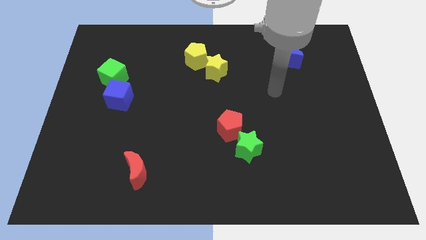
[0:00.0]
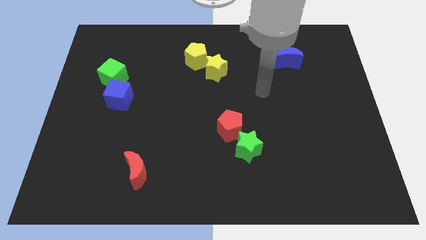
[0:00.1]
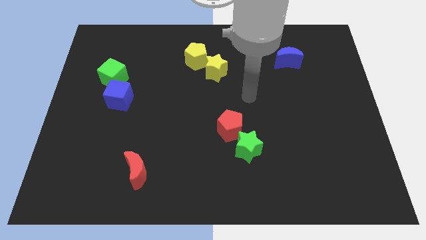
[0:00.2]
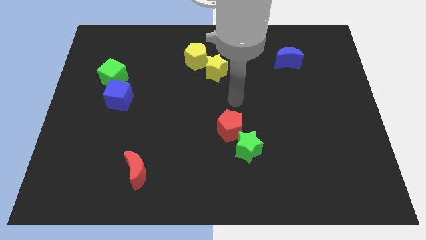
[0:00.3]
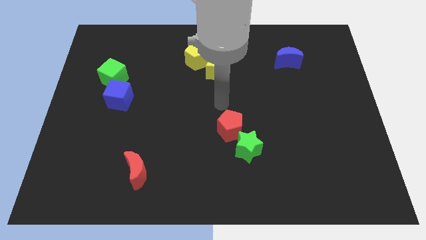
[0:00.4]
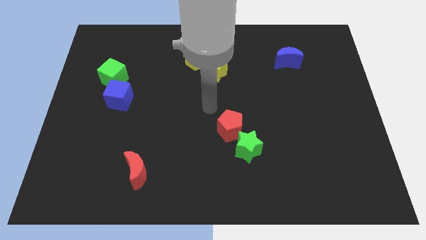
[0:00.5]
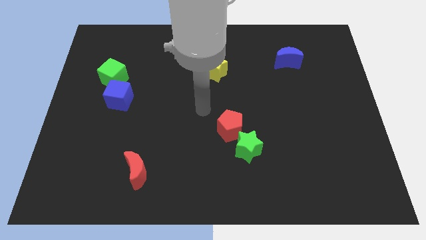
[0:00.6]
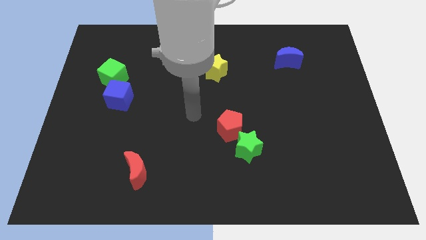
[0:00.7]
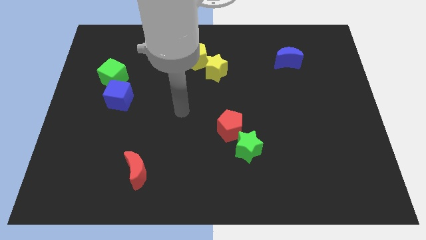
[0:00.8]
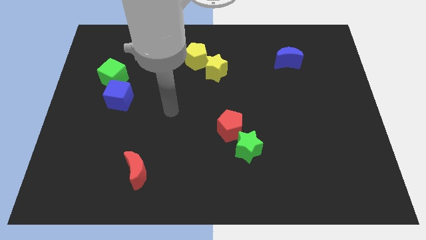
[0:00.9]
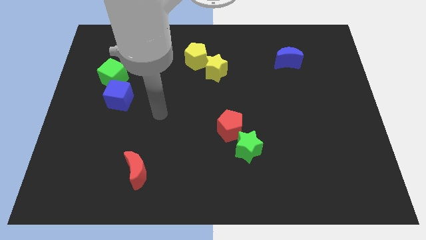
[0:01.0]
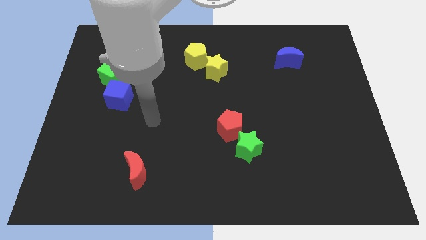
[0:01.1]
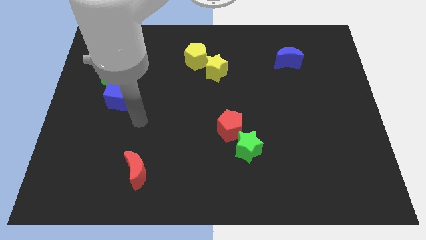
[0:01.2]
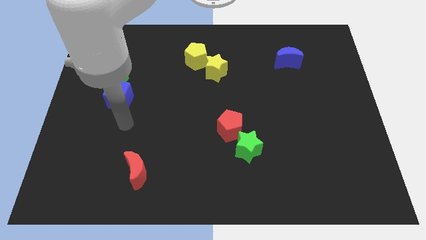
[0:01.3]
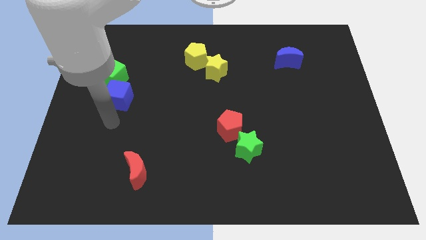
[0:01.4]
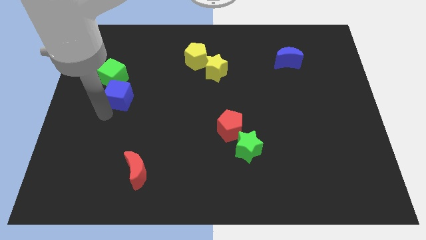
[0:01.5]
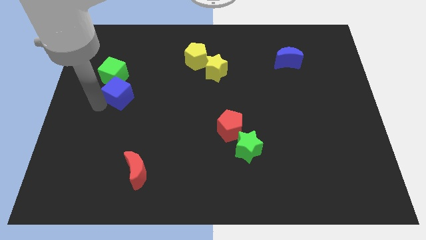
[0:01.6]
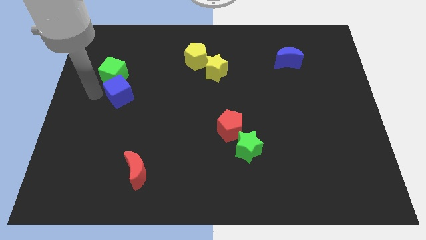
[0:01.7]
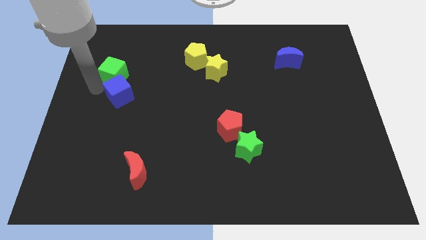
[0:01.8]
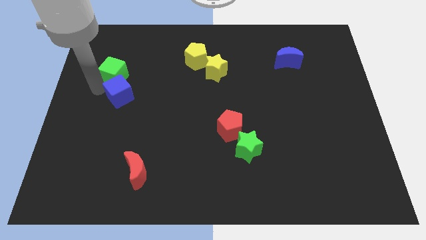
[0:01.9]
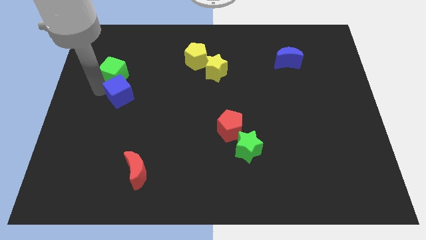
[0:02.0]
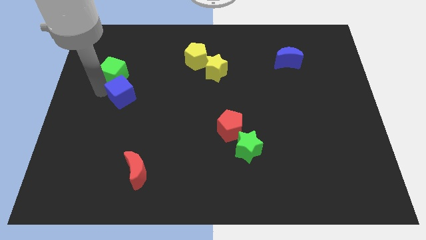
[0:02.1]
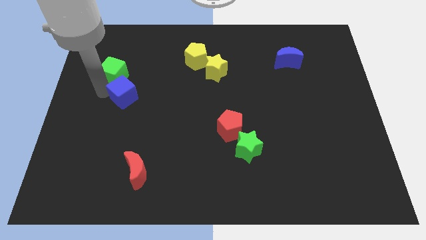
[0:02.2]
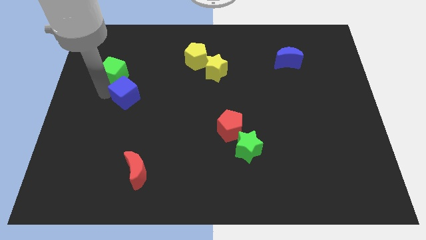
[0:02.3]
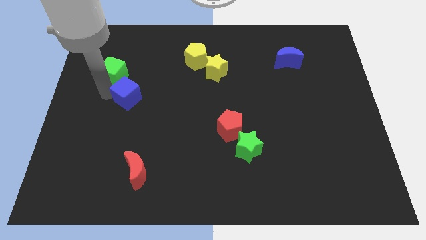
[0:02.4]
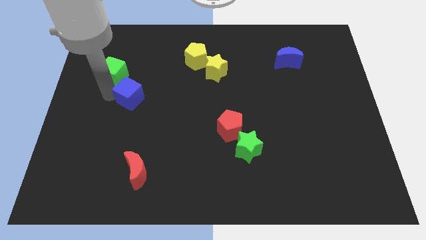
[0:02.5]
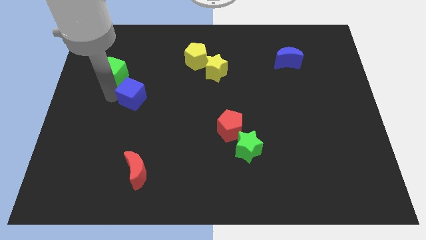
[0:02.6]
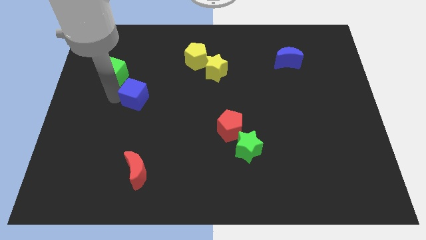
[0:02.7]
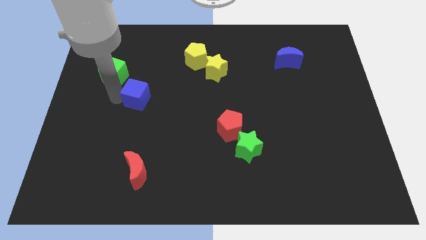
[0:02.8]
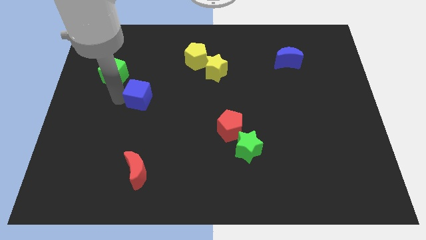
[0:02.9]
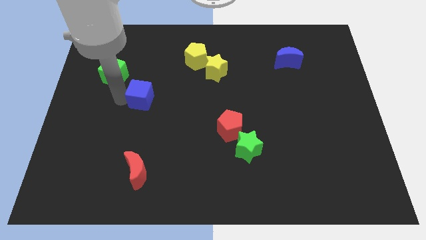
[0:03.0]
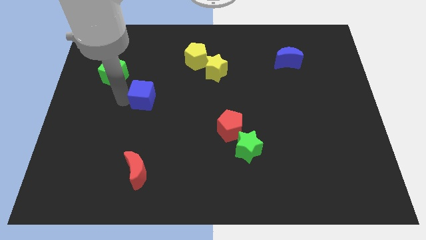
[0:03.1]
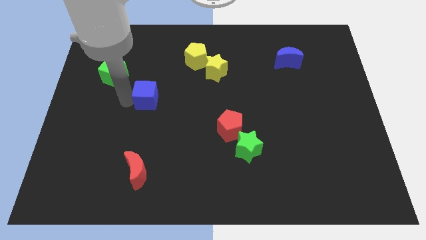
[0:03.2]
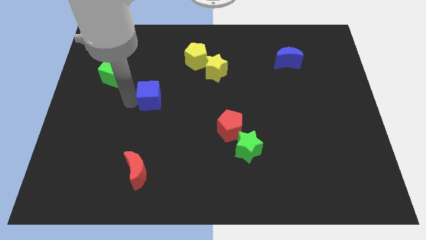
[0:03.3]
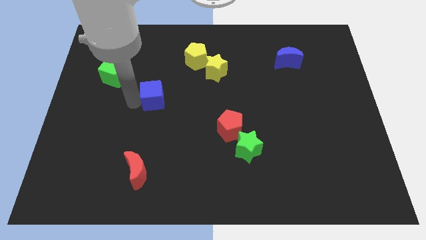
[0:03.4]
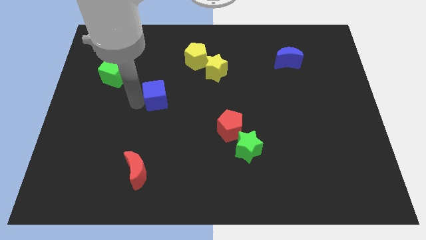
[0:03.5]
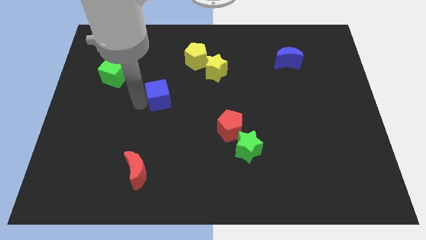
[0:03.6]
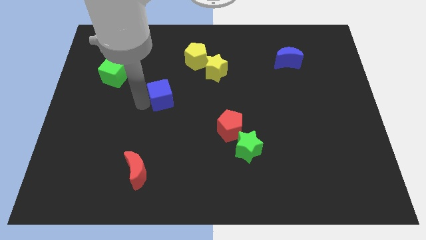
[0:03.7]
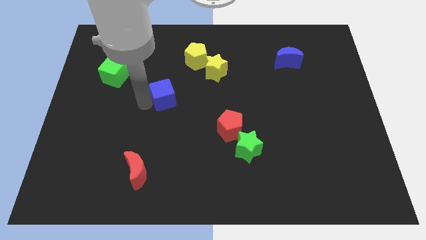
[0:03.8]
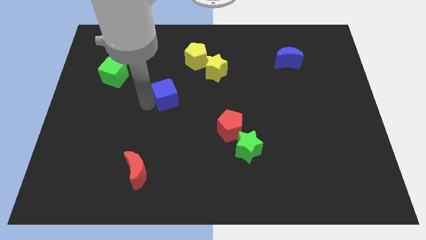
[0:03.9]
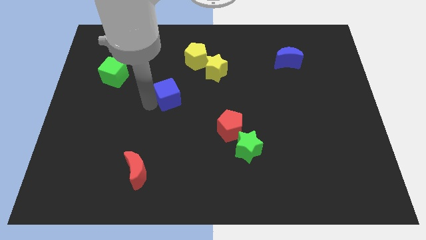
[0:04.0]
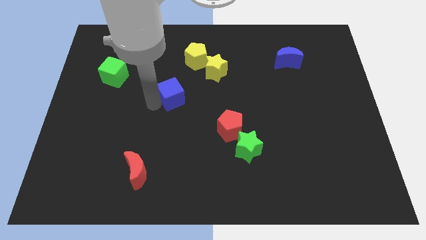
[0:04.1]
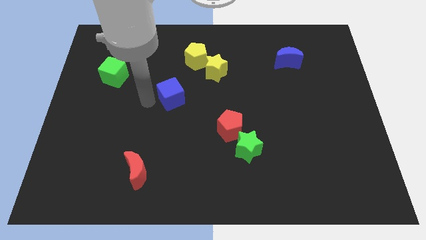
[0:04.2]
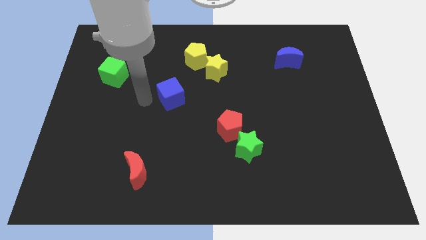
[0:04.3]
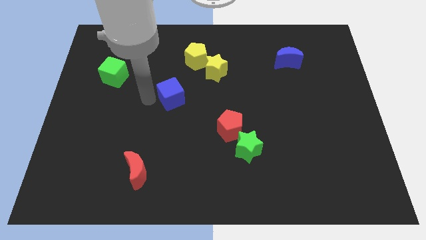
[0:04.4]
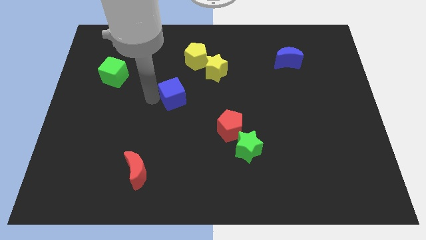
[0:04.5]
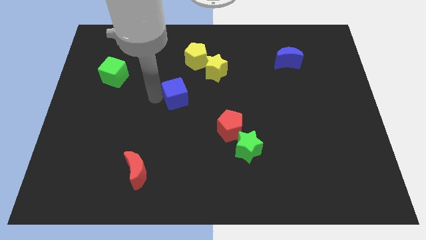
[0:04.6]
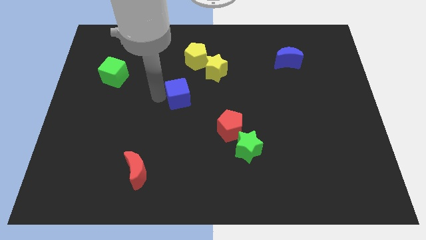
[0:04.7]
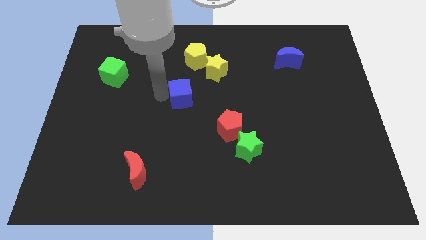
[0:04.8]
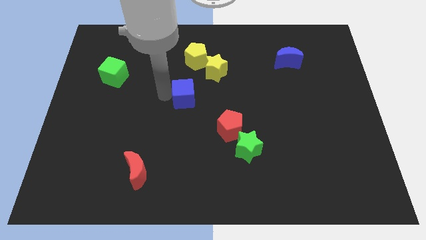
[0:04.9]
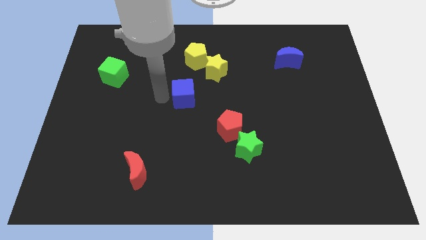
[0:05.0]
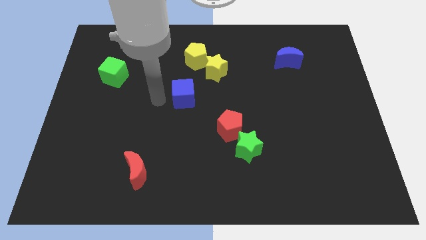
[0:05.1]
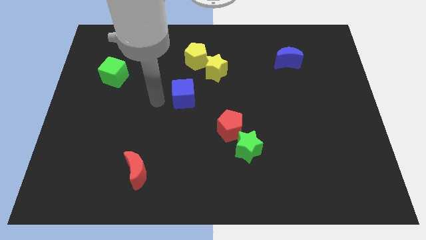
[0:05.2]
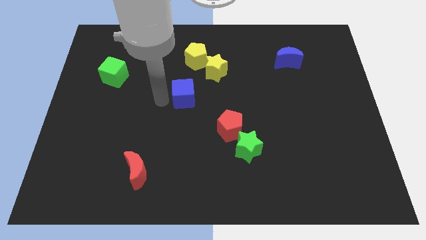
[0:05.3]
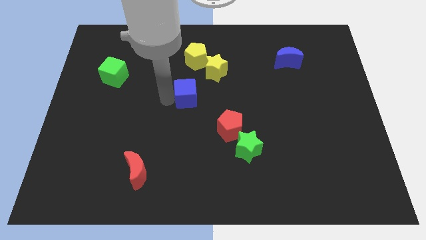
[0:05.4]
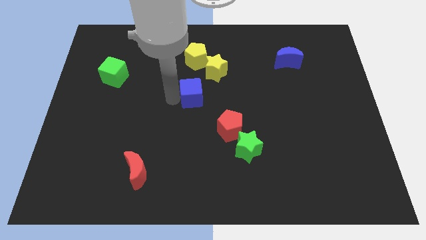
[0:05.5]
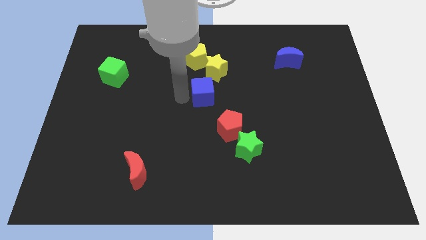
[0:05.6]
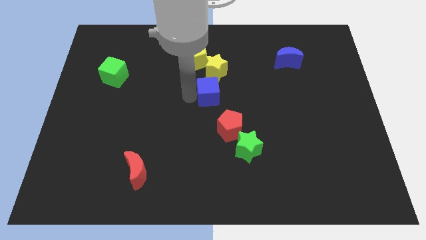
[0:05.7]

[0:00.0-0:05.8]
move the blue cube to the top of the red pentagon

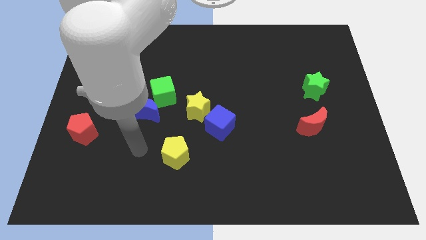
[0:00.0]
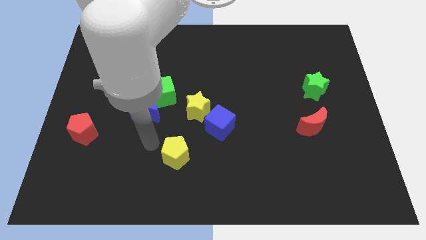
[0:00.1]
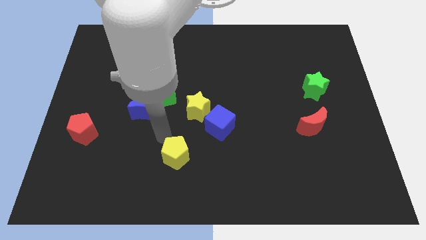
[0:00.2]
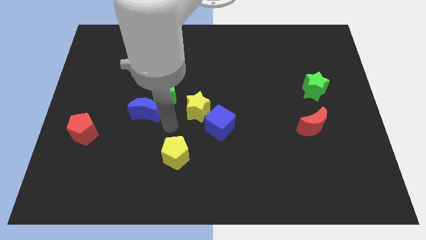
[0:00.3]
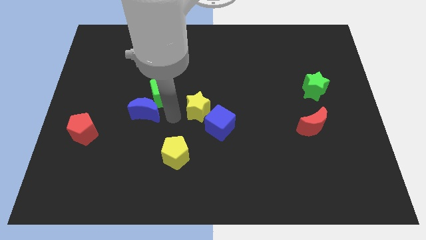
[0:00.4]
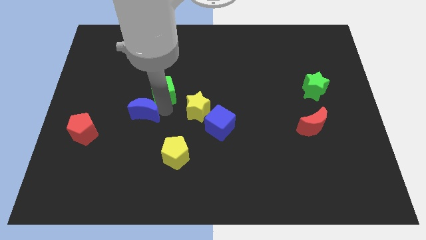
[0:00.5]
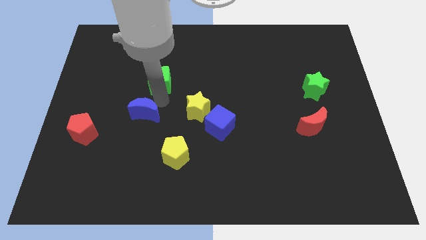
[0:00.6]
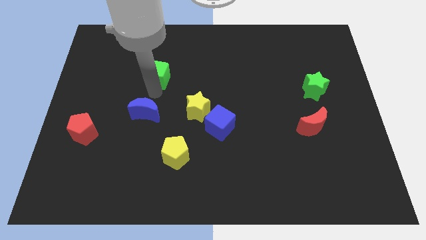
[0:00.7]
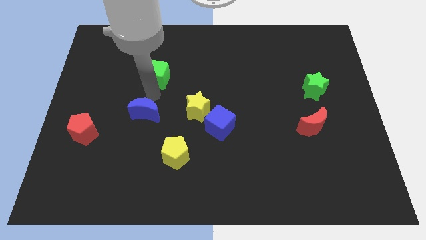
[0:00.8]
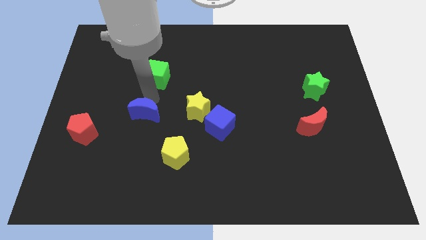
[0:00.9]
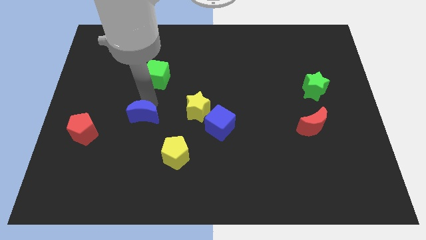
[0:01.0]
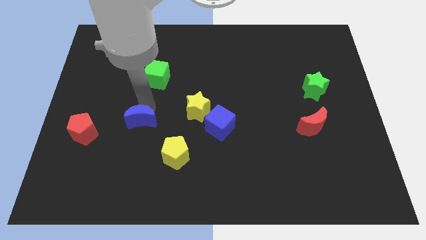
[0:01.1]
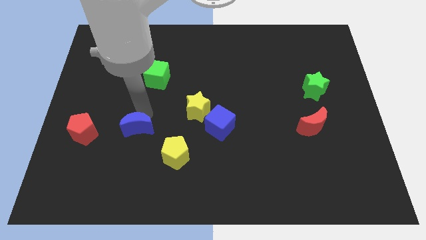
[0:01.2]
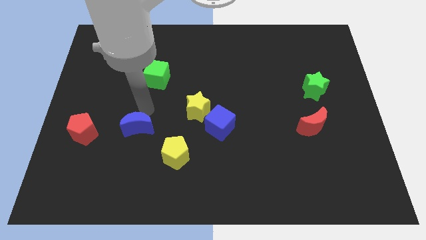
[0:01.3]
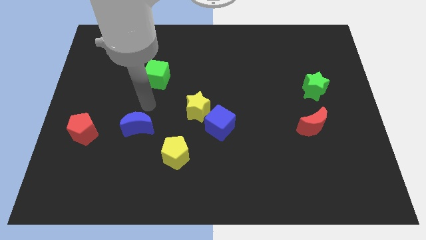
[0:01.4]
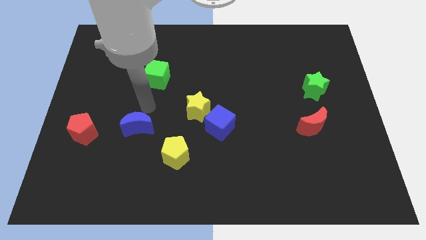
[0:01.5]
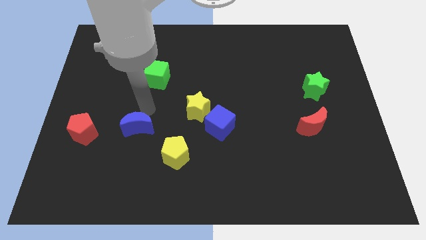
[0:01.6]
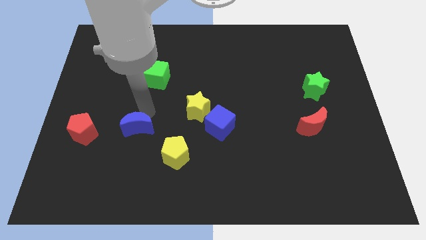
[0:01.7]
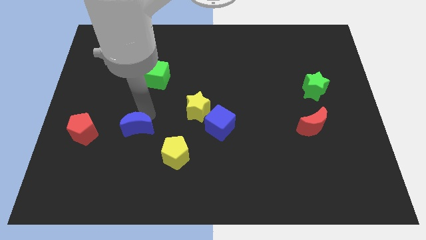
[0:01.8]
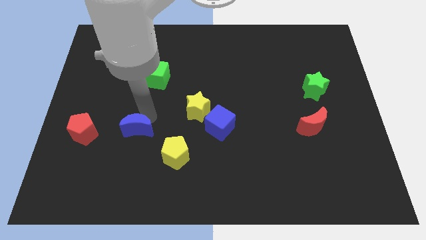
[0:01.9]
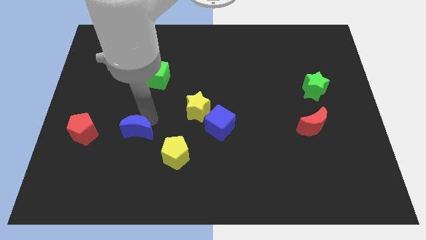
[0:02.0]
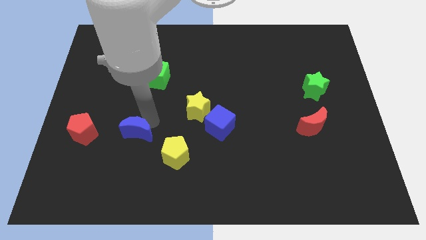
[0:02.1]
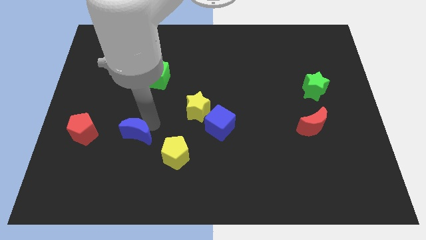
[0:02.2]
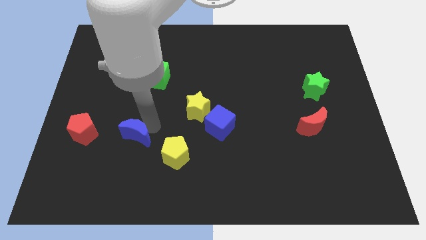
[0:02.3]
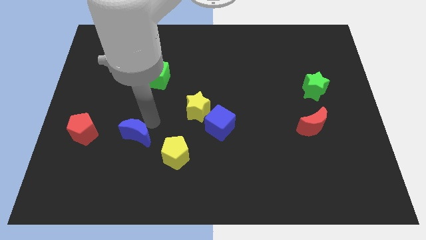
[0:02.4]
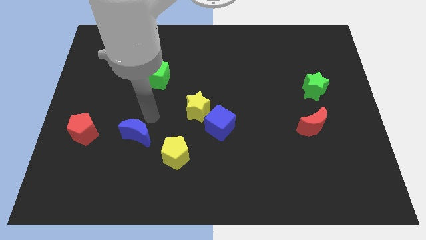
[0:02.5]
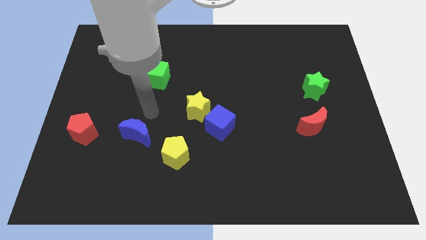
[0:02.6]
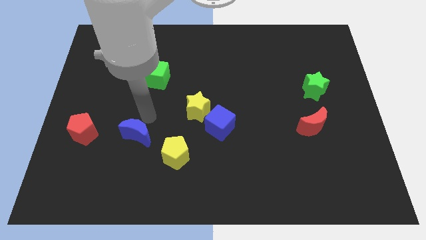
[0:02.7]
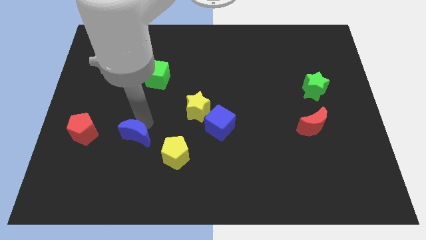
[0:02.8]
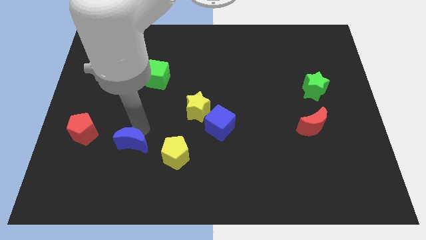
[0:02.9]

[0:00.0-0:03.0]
move the blue moon just left of the yellow pentagon
